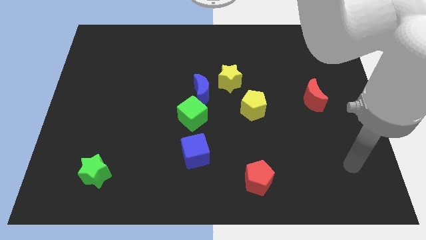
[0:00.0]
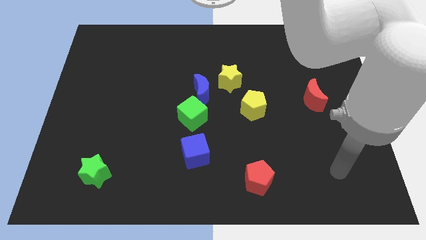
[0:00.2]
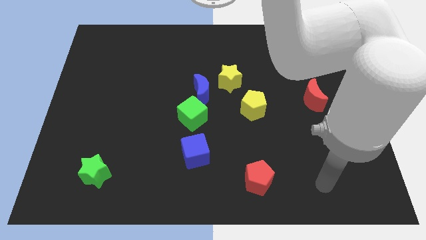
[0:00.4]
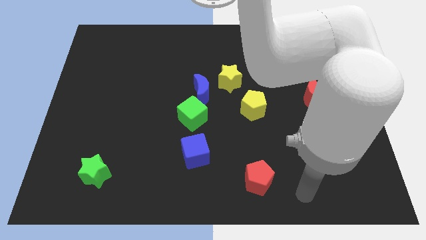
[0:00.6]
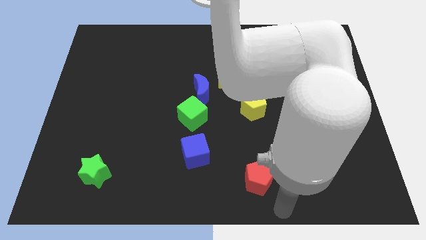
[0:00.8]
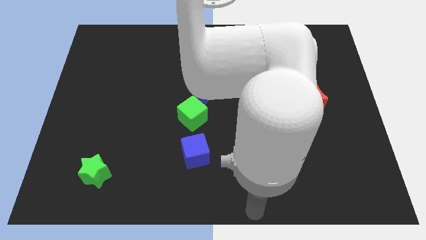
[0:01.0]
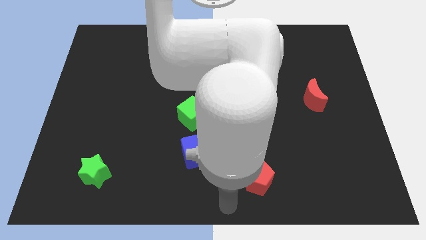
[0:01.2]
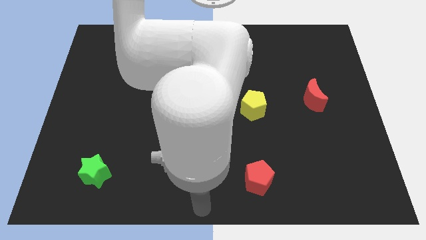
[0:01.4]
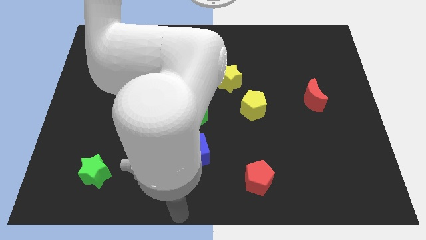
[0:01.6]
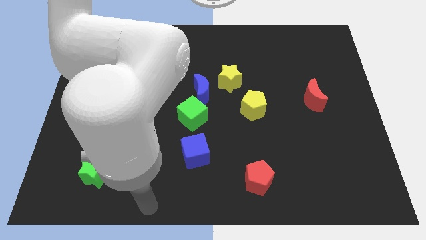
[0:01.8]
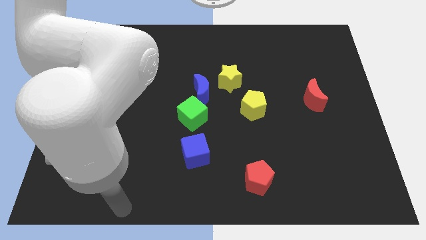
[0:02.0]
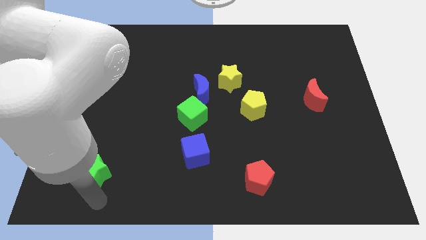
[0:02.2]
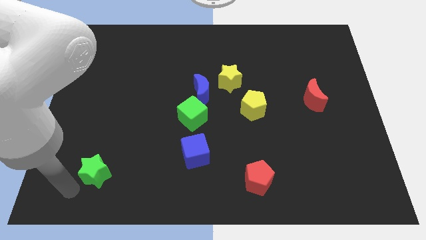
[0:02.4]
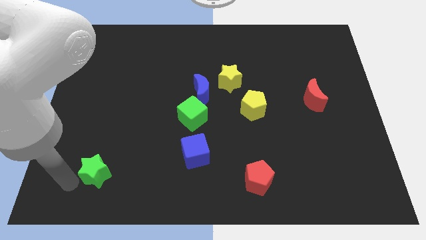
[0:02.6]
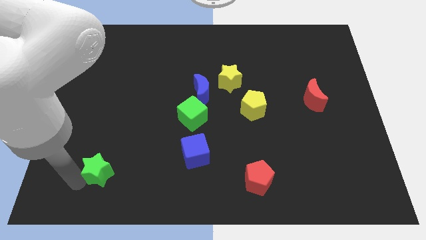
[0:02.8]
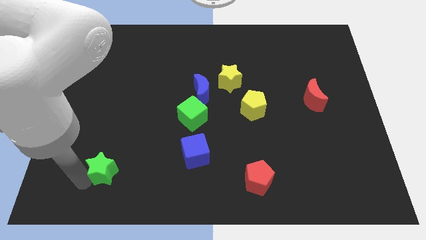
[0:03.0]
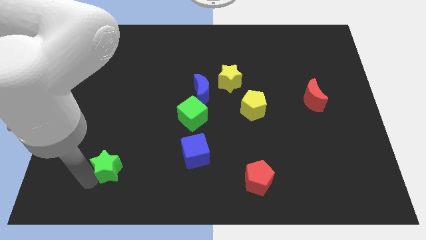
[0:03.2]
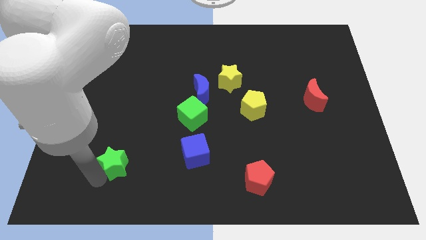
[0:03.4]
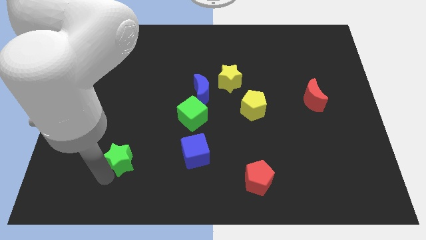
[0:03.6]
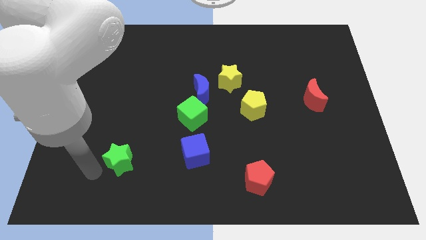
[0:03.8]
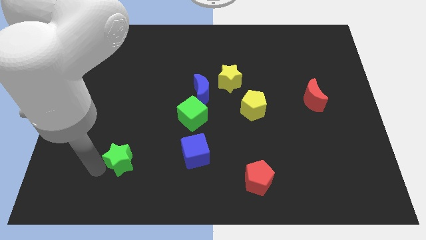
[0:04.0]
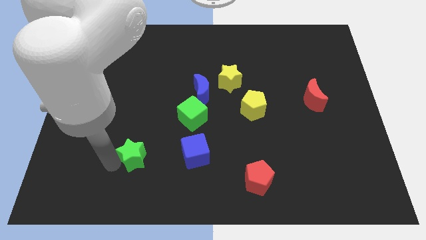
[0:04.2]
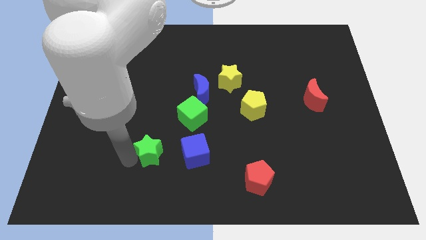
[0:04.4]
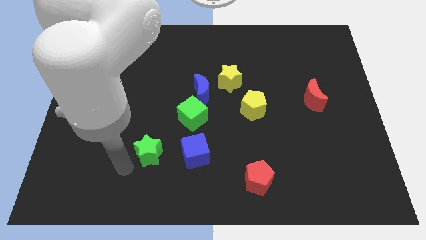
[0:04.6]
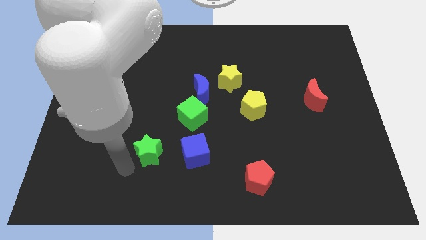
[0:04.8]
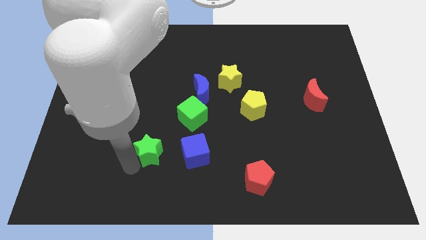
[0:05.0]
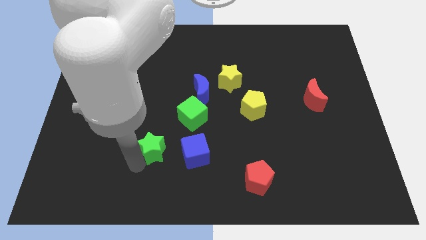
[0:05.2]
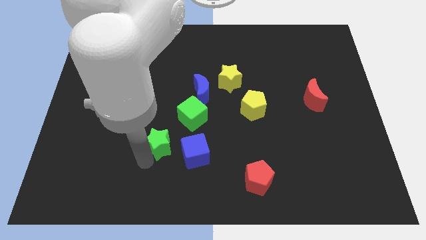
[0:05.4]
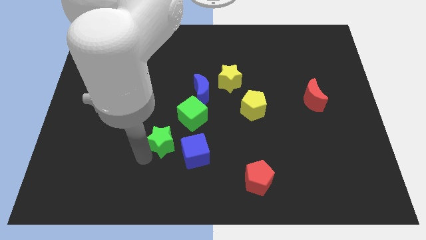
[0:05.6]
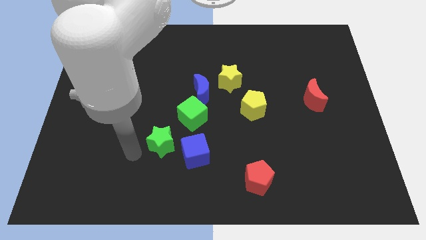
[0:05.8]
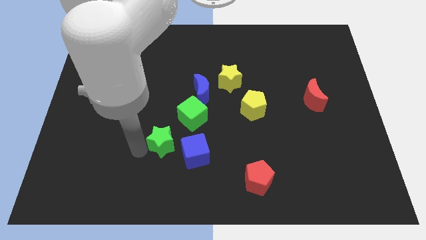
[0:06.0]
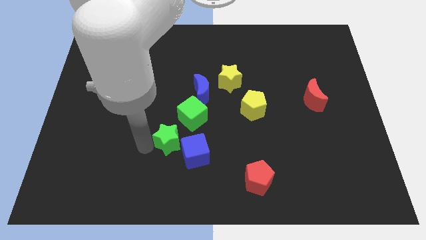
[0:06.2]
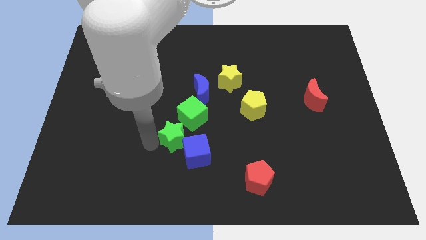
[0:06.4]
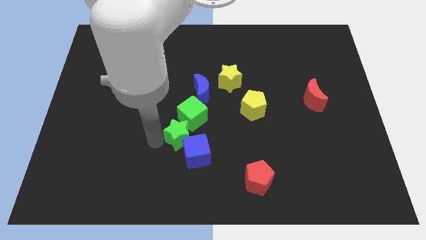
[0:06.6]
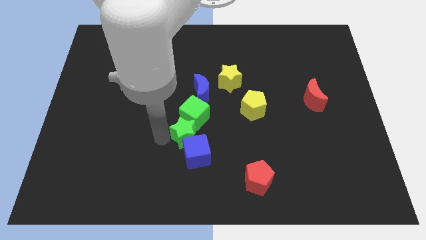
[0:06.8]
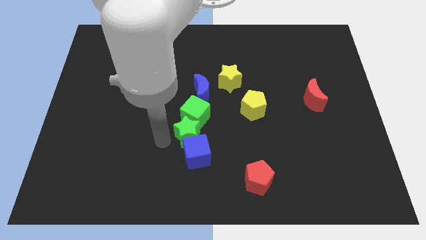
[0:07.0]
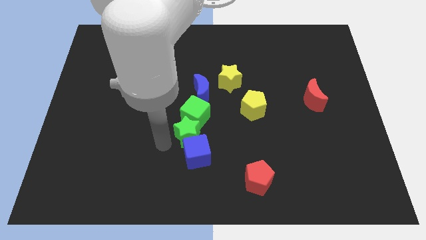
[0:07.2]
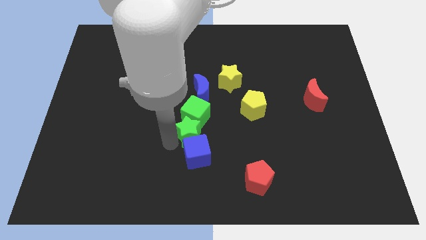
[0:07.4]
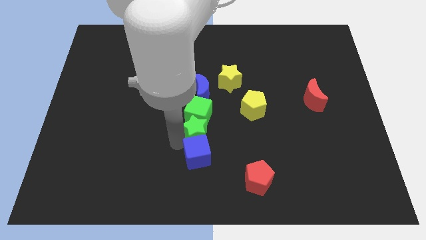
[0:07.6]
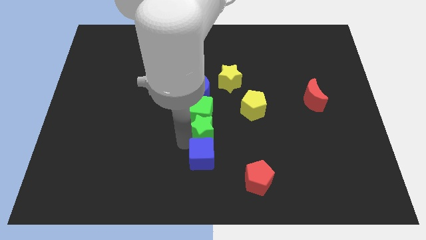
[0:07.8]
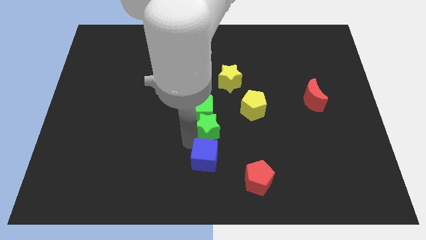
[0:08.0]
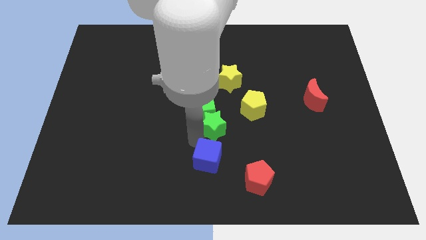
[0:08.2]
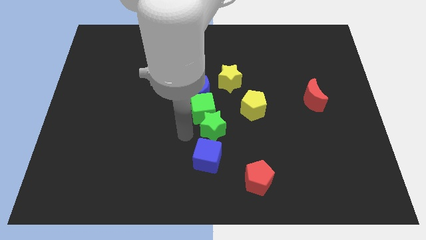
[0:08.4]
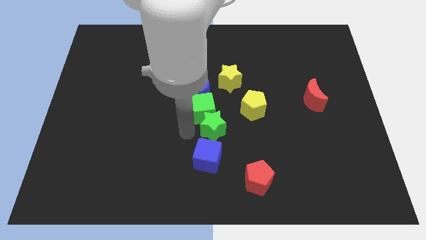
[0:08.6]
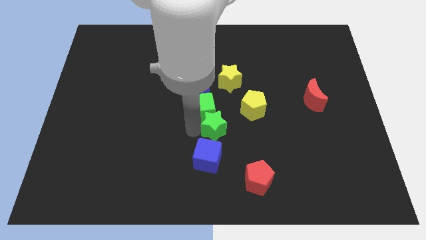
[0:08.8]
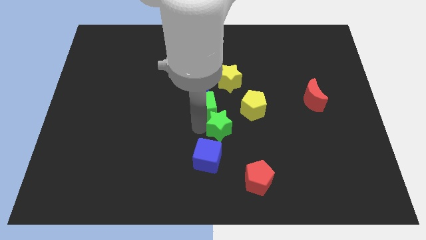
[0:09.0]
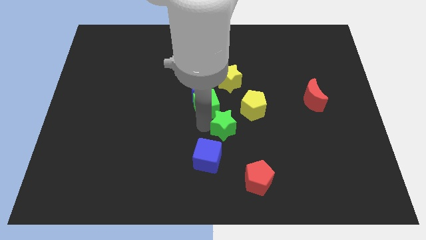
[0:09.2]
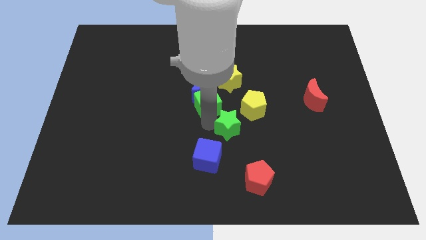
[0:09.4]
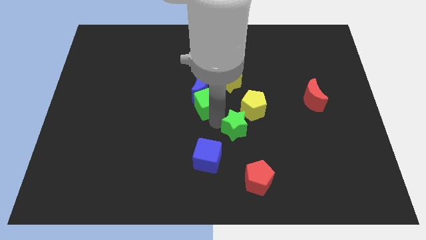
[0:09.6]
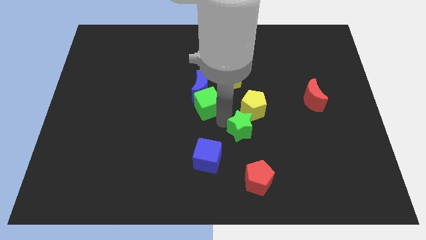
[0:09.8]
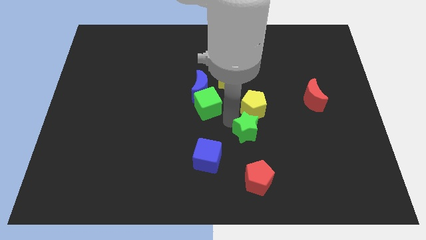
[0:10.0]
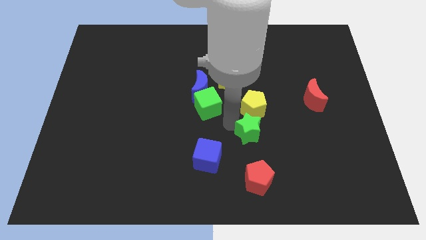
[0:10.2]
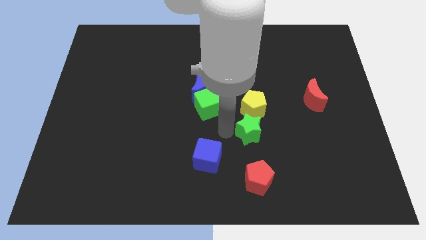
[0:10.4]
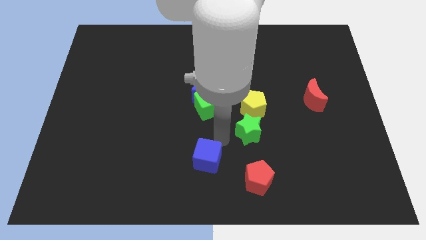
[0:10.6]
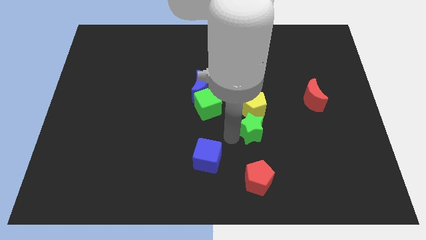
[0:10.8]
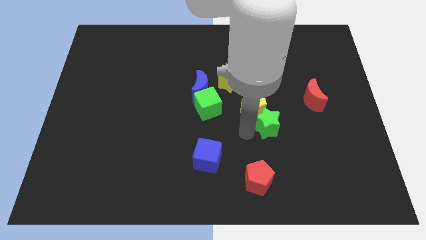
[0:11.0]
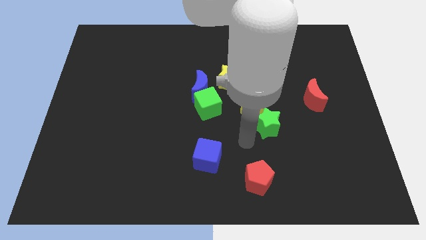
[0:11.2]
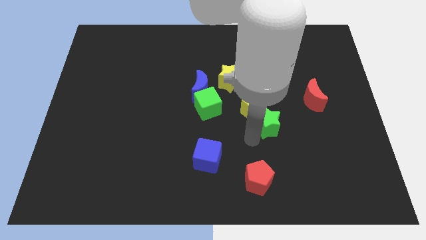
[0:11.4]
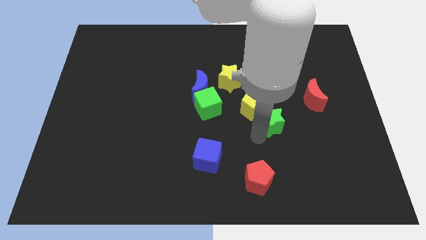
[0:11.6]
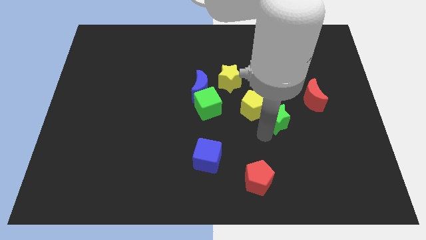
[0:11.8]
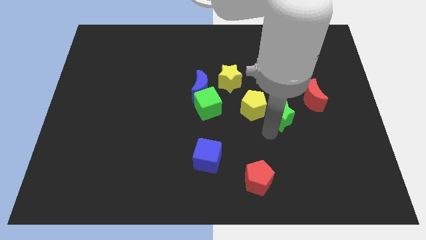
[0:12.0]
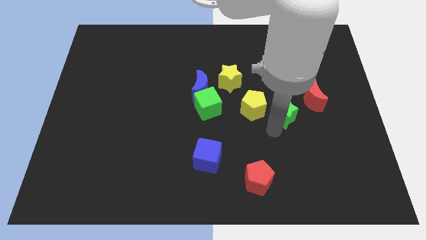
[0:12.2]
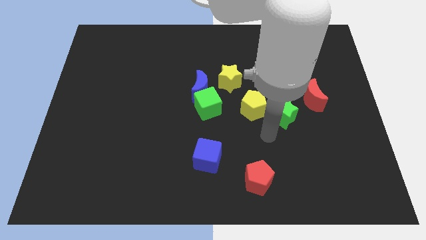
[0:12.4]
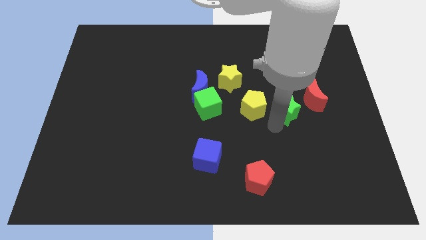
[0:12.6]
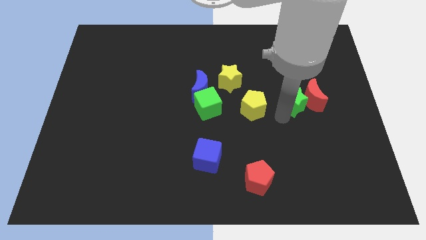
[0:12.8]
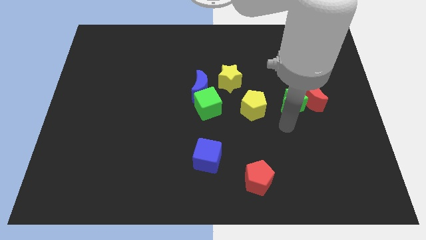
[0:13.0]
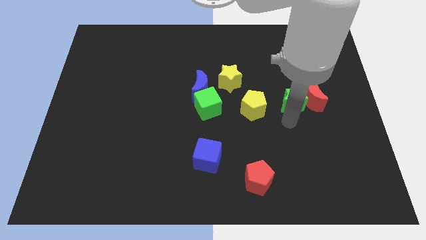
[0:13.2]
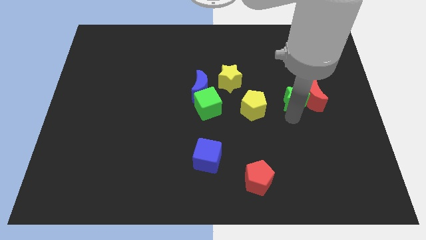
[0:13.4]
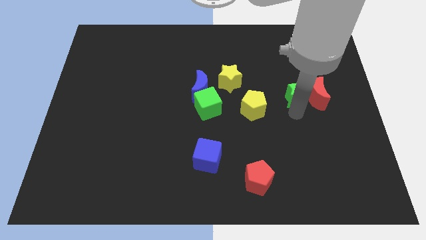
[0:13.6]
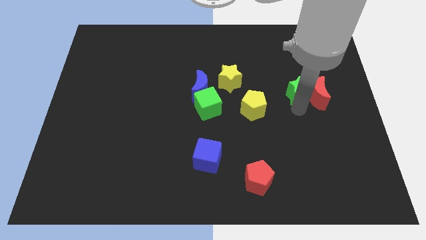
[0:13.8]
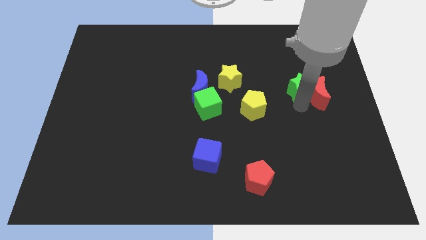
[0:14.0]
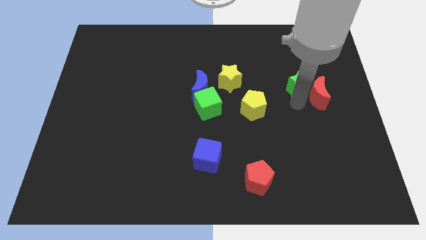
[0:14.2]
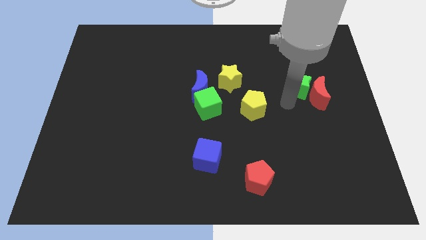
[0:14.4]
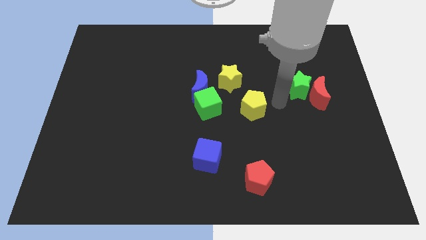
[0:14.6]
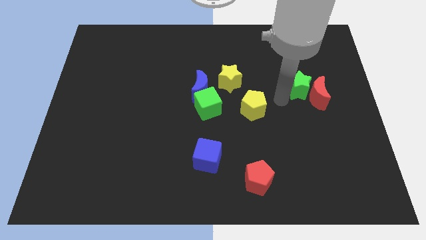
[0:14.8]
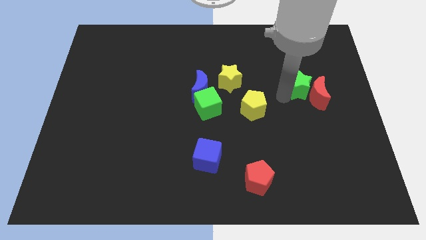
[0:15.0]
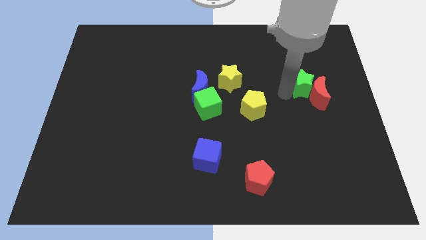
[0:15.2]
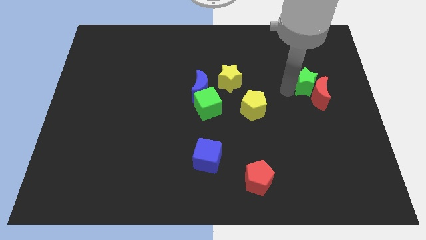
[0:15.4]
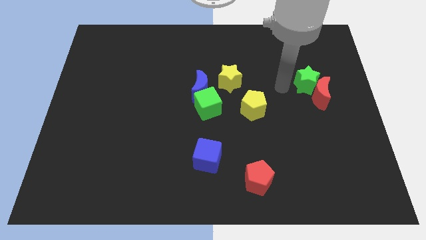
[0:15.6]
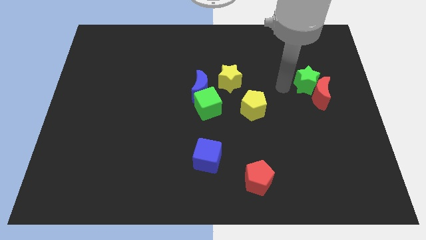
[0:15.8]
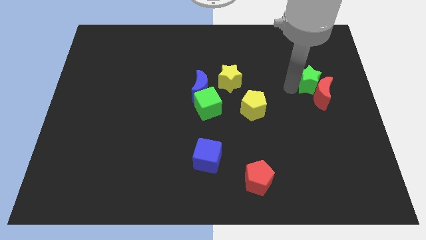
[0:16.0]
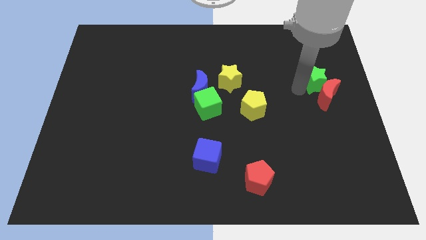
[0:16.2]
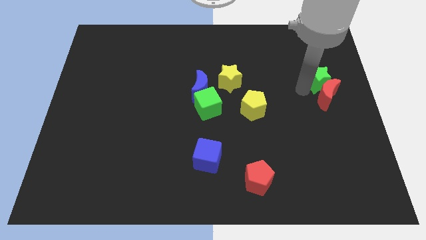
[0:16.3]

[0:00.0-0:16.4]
move the green star to the top right side of the red moon
